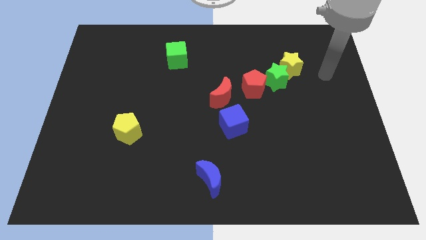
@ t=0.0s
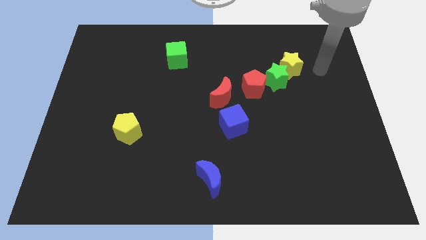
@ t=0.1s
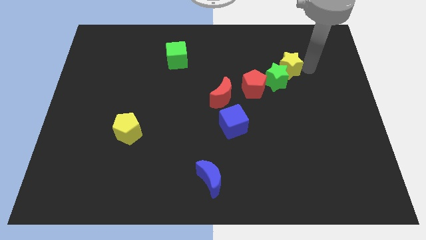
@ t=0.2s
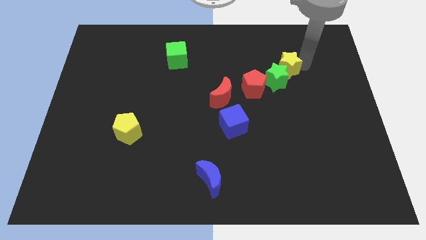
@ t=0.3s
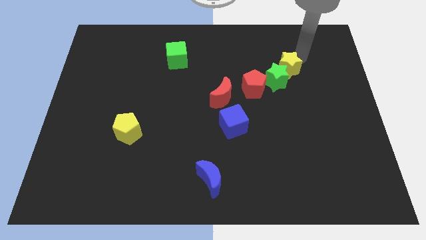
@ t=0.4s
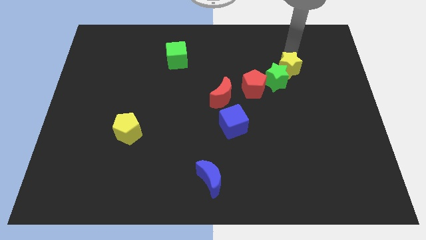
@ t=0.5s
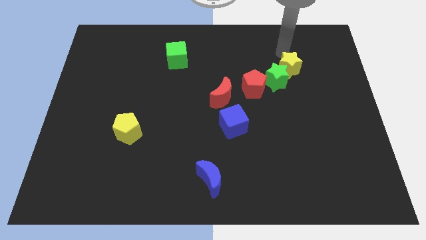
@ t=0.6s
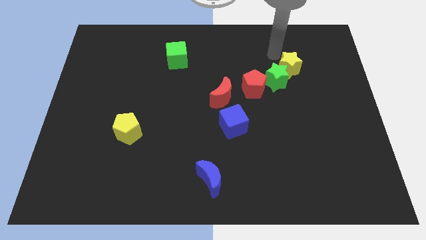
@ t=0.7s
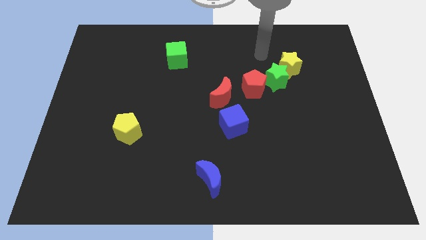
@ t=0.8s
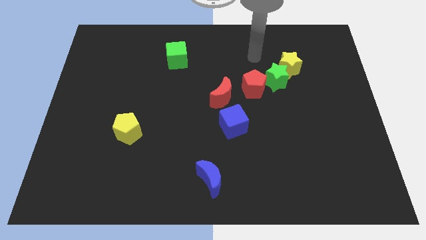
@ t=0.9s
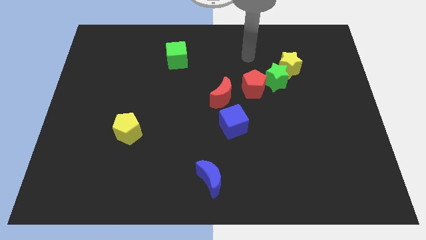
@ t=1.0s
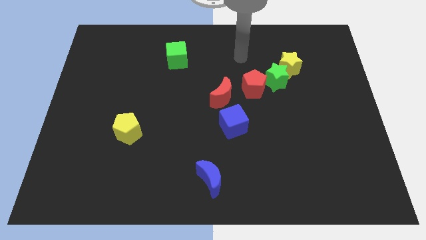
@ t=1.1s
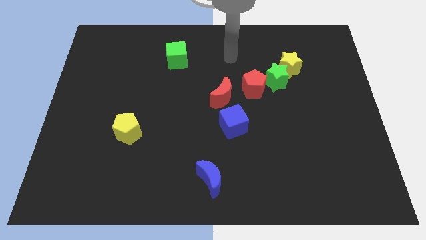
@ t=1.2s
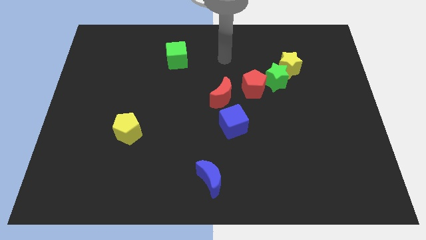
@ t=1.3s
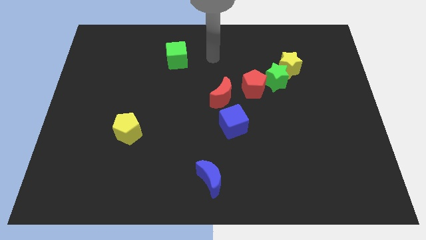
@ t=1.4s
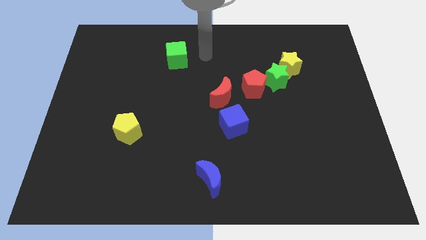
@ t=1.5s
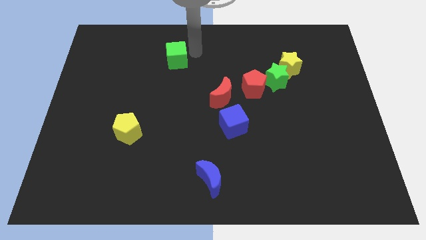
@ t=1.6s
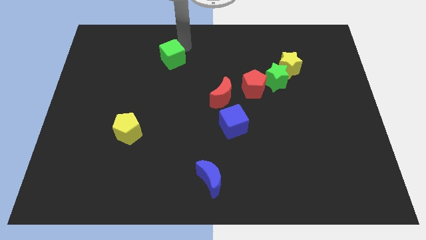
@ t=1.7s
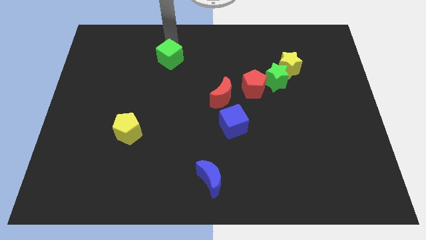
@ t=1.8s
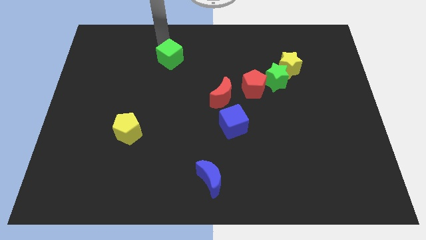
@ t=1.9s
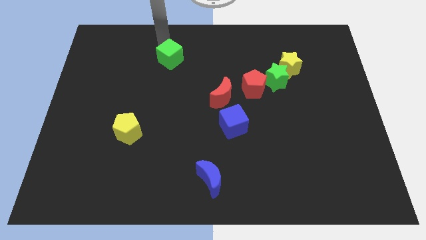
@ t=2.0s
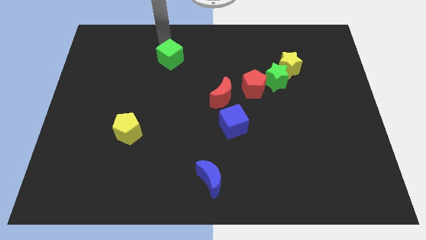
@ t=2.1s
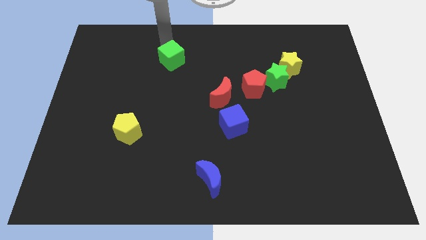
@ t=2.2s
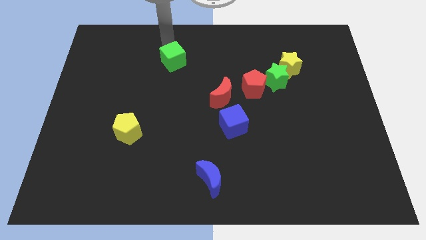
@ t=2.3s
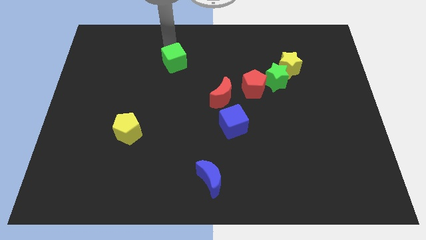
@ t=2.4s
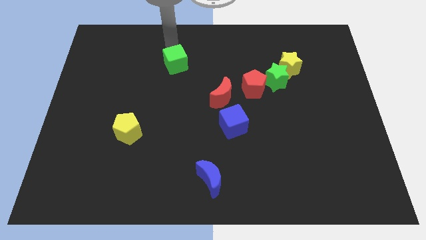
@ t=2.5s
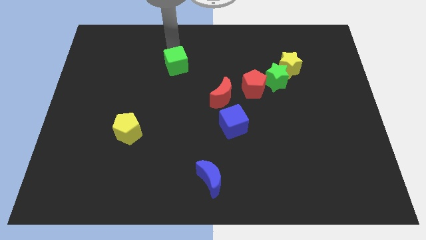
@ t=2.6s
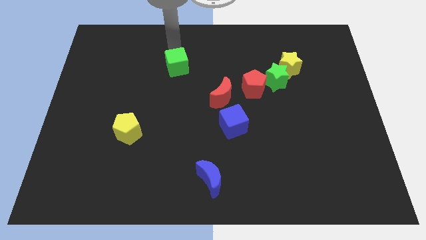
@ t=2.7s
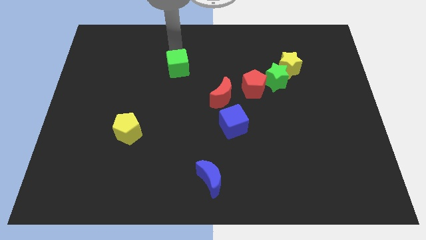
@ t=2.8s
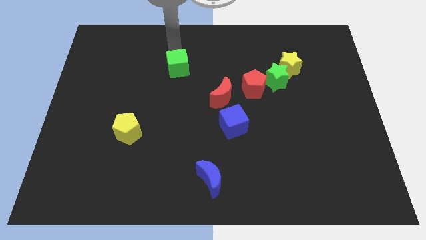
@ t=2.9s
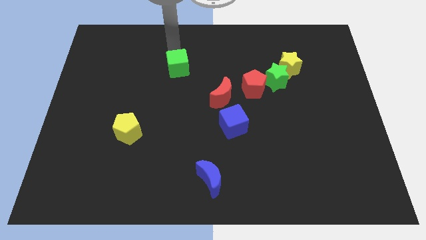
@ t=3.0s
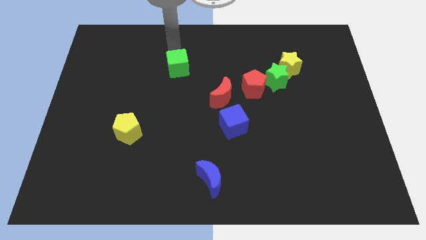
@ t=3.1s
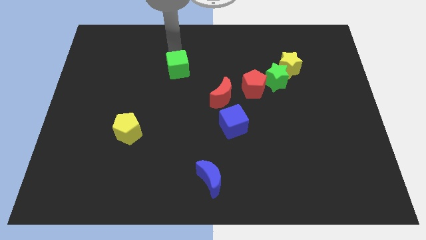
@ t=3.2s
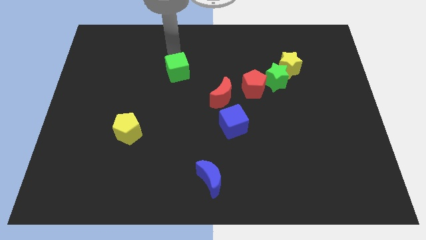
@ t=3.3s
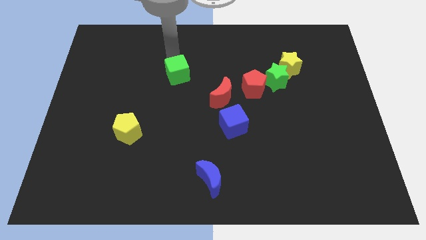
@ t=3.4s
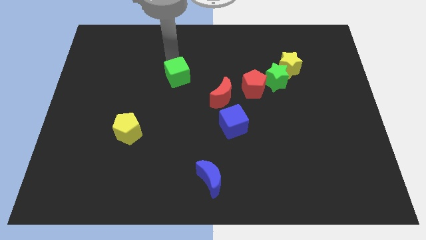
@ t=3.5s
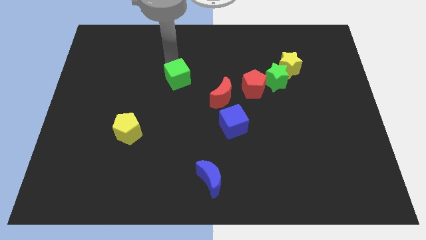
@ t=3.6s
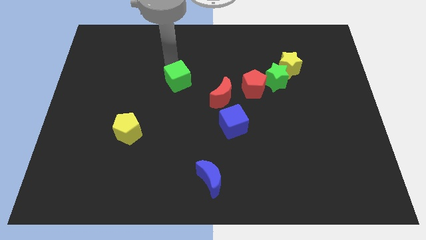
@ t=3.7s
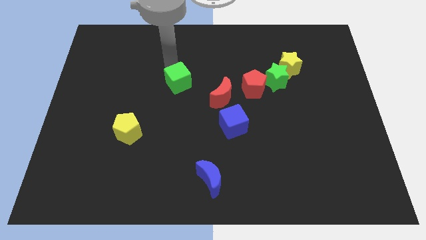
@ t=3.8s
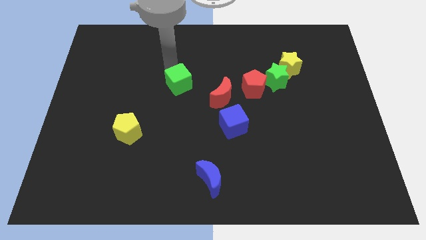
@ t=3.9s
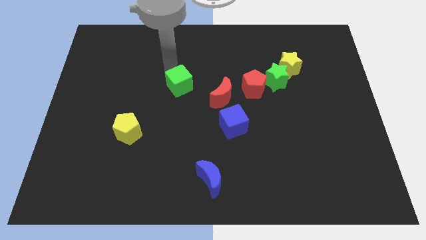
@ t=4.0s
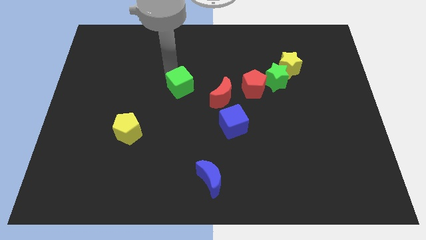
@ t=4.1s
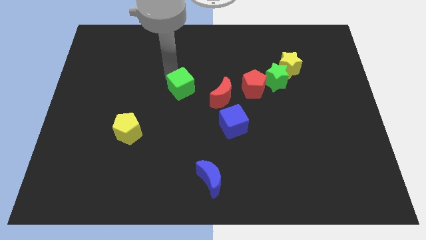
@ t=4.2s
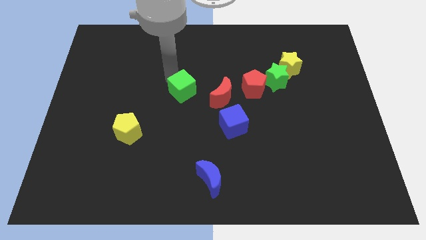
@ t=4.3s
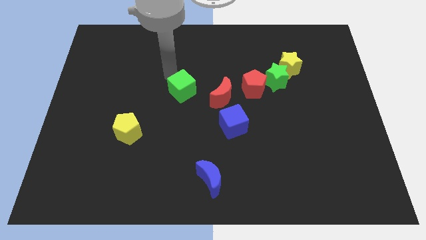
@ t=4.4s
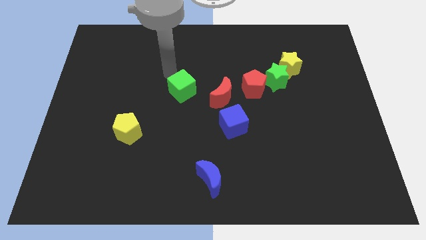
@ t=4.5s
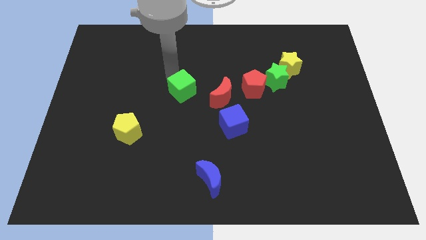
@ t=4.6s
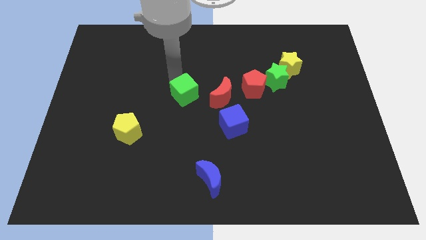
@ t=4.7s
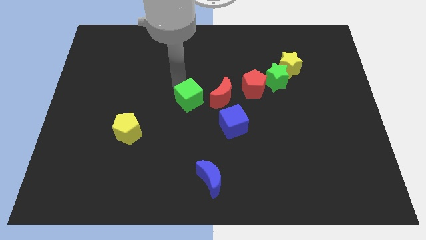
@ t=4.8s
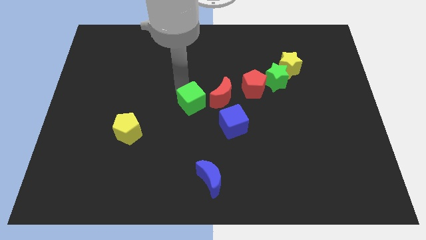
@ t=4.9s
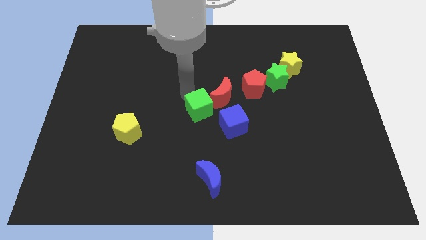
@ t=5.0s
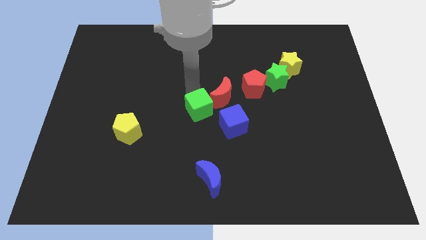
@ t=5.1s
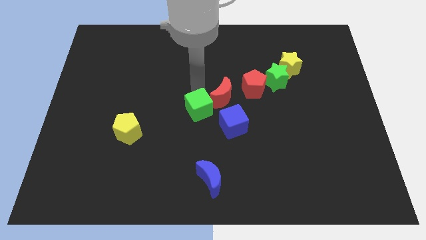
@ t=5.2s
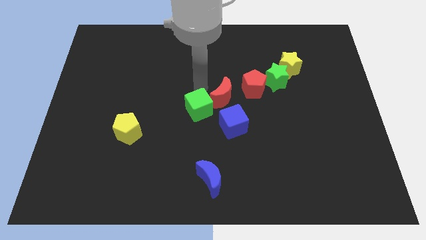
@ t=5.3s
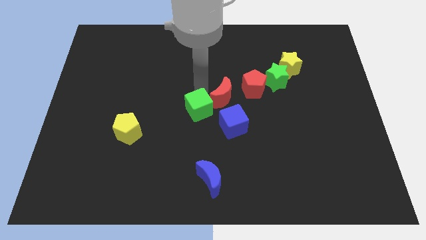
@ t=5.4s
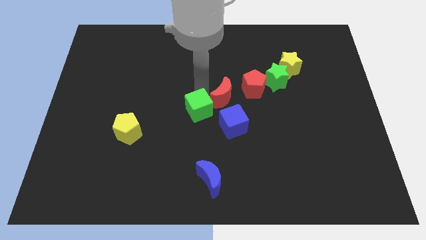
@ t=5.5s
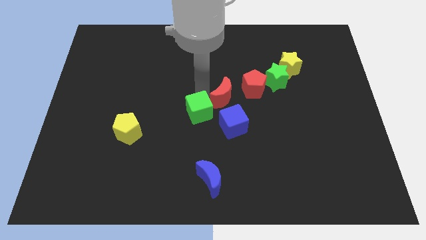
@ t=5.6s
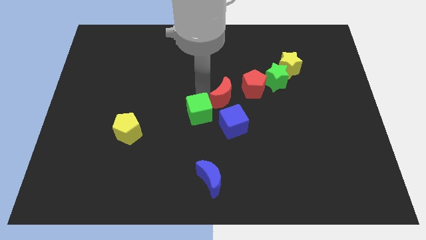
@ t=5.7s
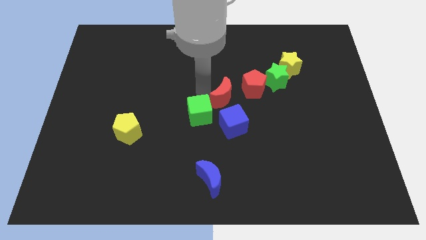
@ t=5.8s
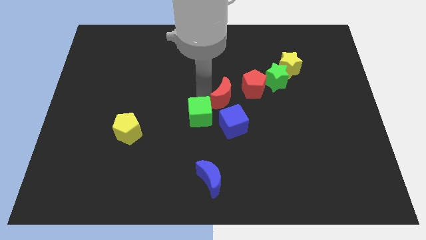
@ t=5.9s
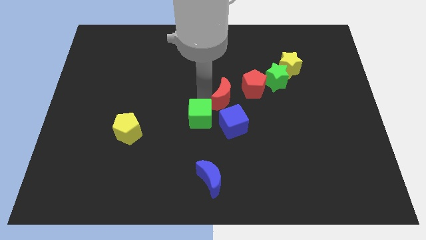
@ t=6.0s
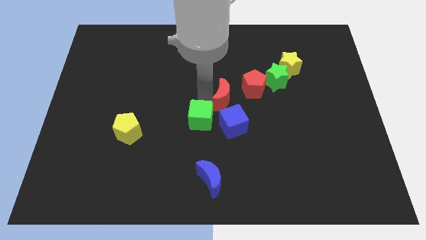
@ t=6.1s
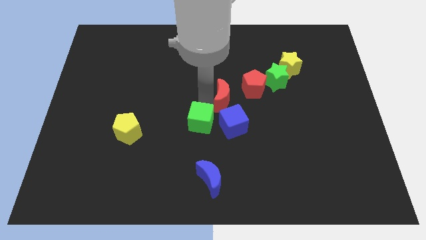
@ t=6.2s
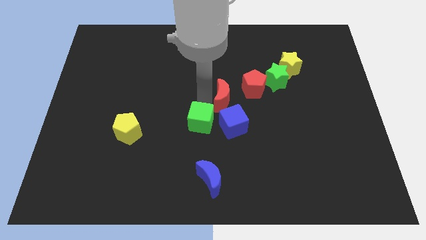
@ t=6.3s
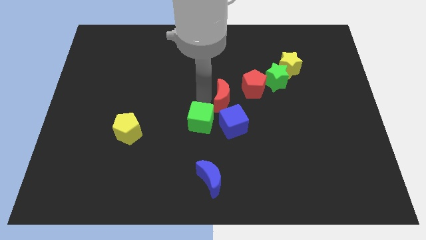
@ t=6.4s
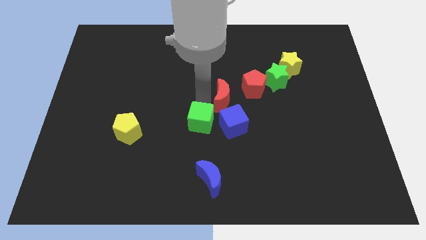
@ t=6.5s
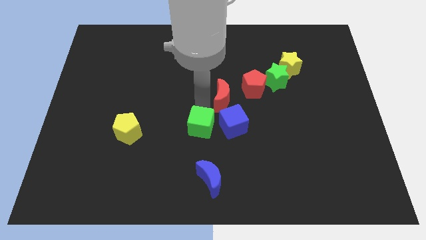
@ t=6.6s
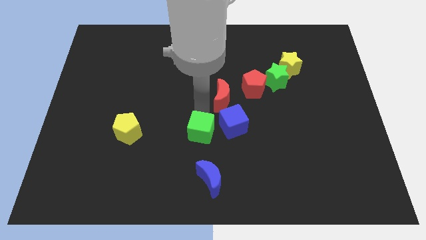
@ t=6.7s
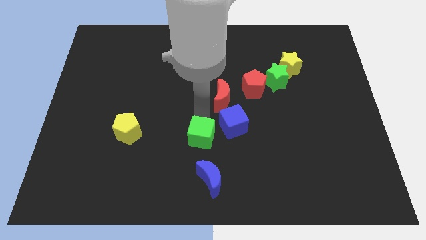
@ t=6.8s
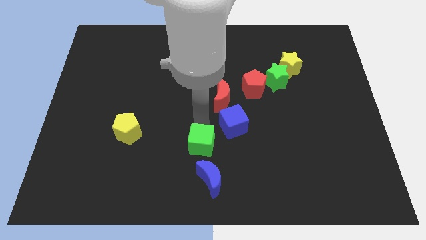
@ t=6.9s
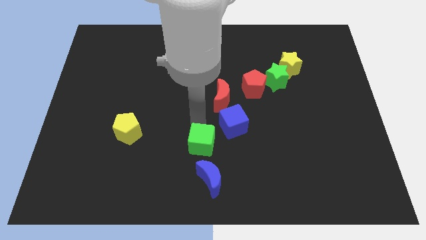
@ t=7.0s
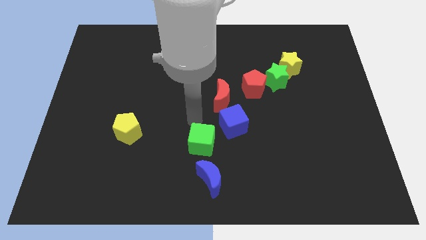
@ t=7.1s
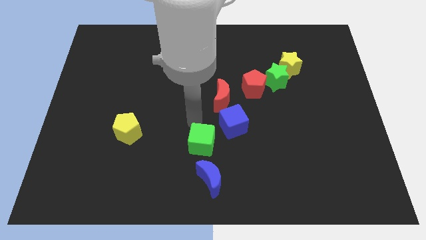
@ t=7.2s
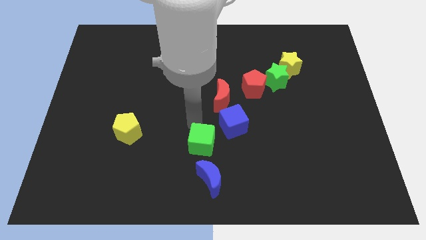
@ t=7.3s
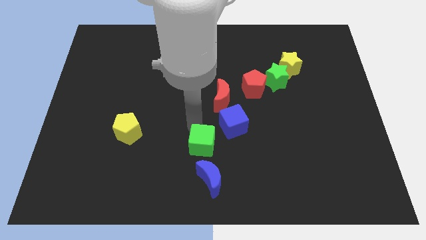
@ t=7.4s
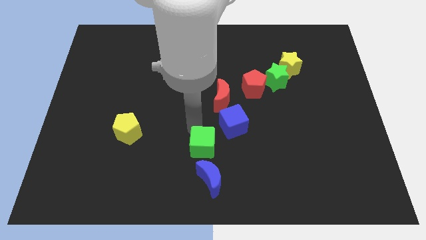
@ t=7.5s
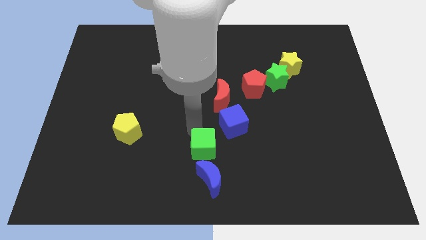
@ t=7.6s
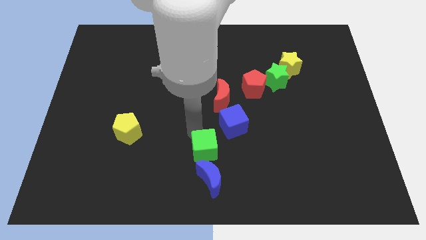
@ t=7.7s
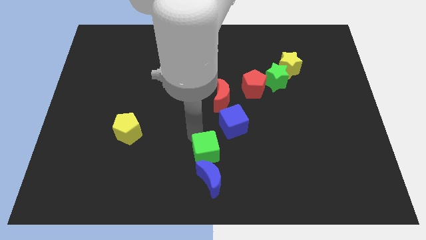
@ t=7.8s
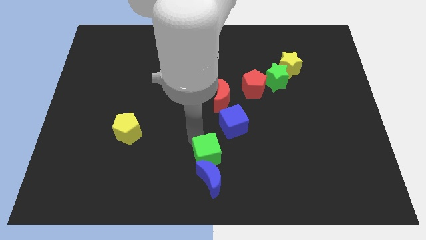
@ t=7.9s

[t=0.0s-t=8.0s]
put the green cube towards the blue moon
